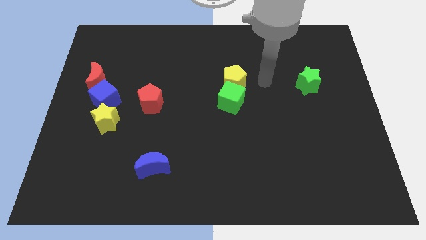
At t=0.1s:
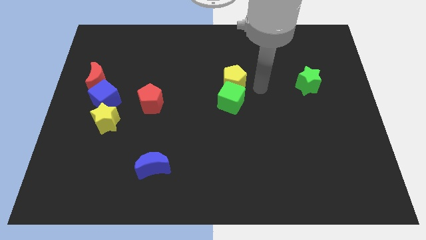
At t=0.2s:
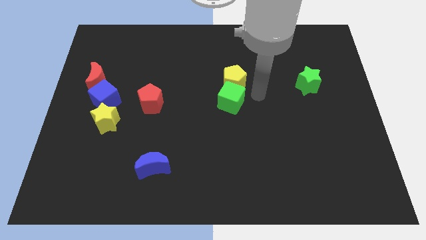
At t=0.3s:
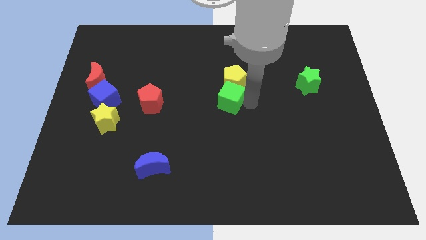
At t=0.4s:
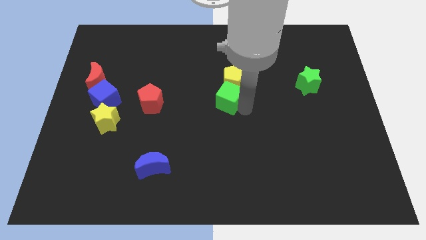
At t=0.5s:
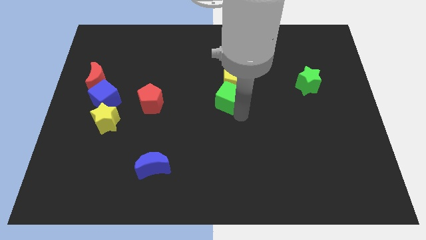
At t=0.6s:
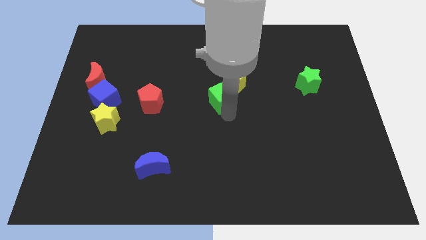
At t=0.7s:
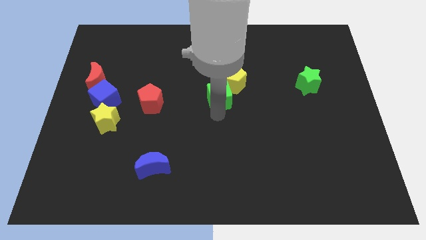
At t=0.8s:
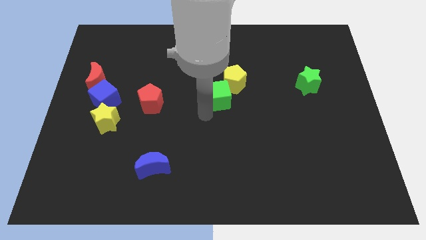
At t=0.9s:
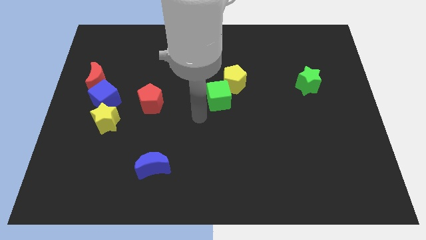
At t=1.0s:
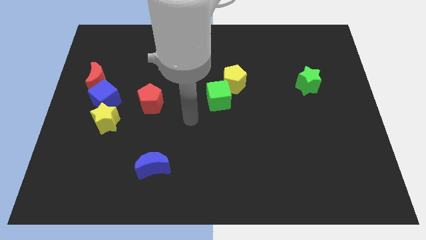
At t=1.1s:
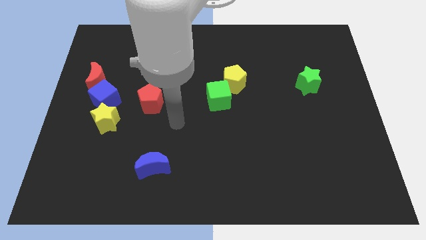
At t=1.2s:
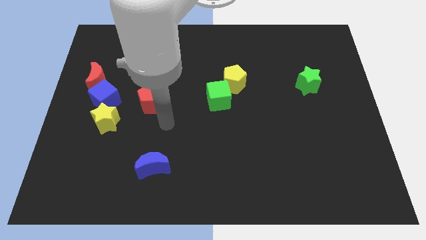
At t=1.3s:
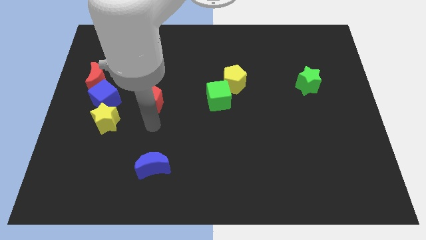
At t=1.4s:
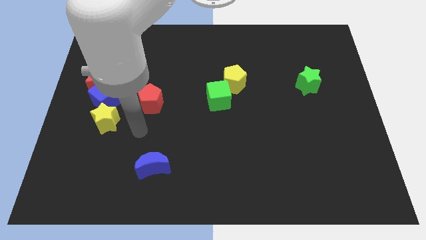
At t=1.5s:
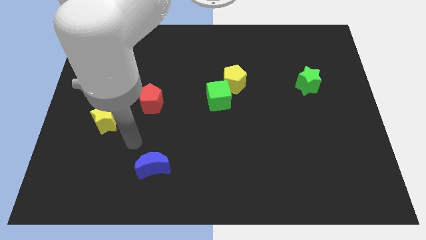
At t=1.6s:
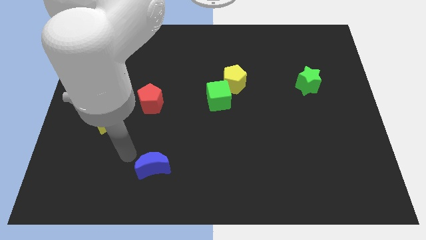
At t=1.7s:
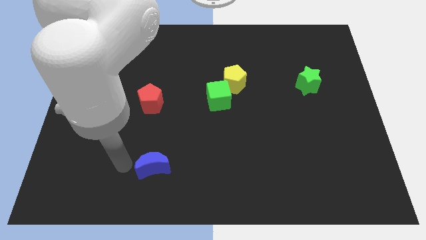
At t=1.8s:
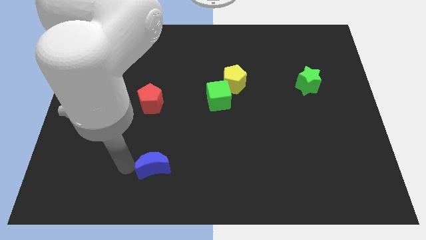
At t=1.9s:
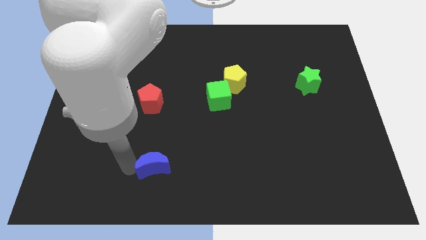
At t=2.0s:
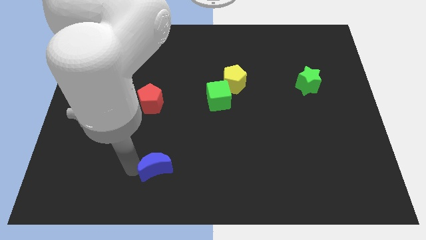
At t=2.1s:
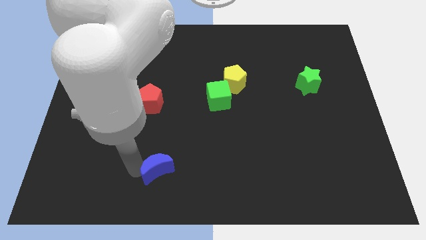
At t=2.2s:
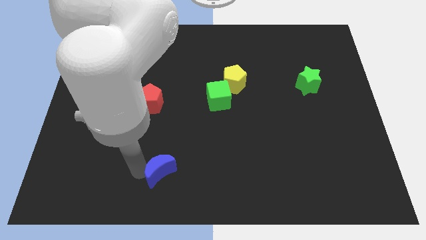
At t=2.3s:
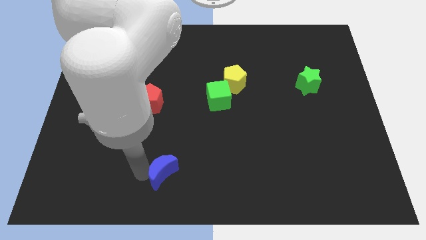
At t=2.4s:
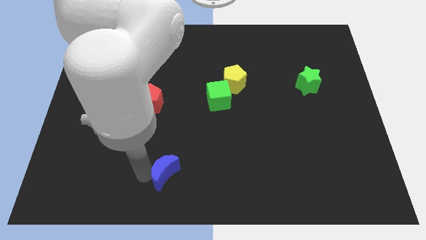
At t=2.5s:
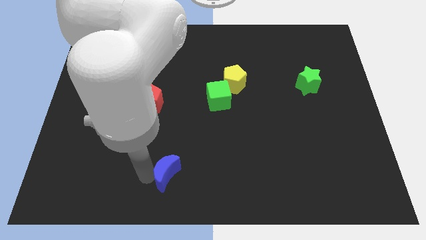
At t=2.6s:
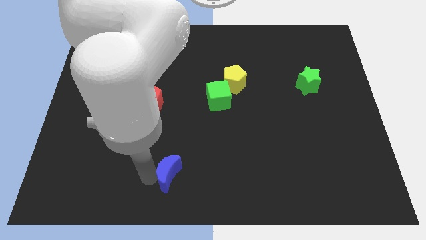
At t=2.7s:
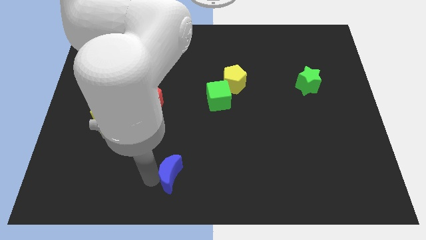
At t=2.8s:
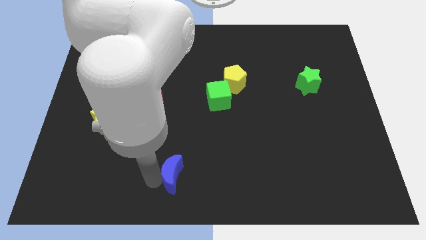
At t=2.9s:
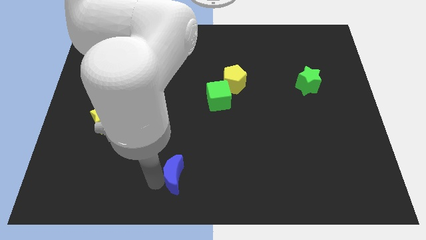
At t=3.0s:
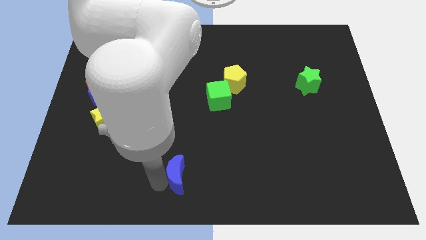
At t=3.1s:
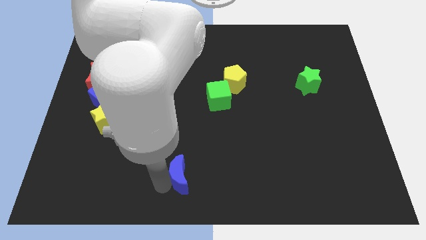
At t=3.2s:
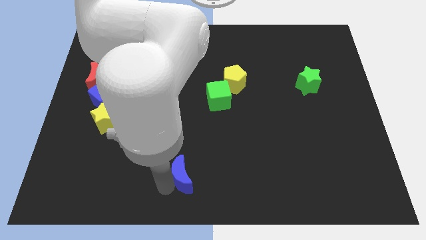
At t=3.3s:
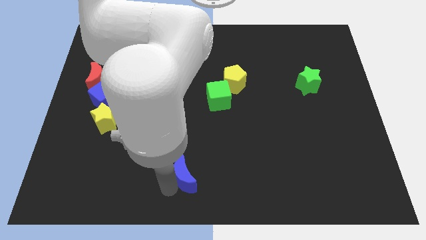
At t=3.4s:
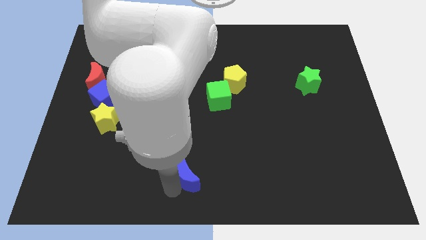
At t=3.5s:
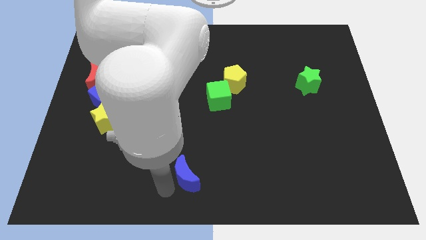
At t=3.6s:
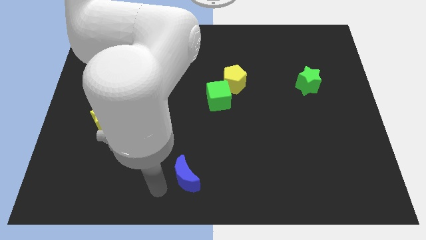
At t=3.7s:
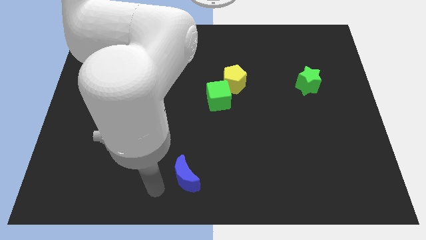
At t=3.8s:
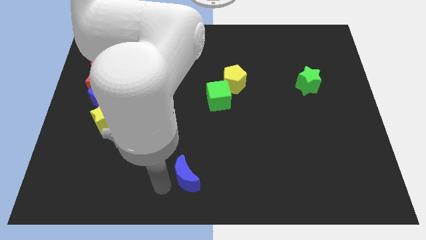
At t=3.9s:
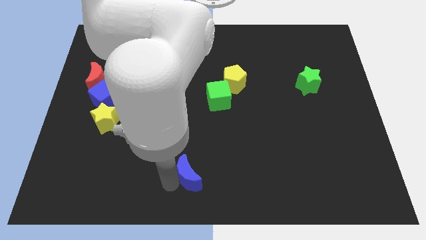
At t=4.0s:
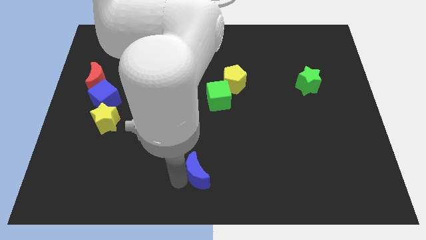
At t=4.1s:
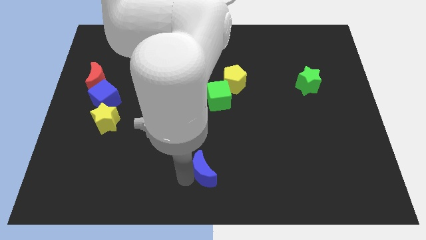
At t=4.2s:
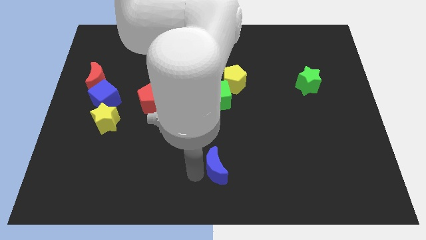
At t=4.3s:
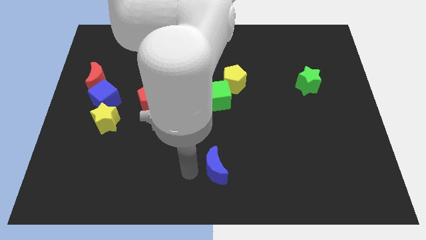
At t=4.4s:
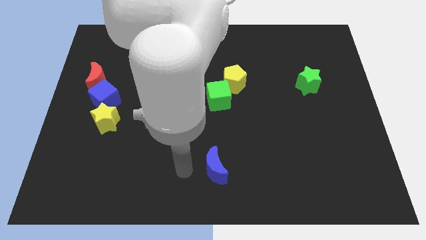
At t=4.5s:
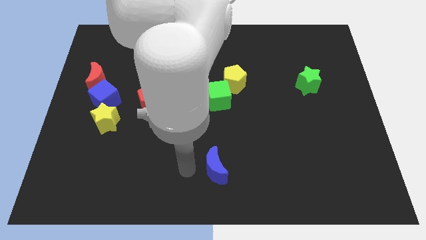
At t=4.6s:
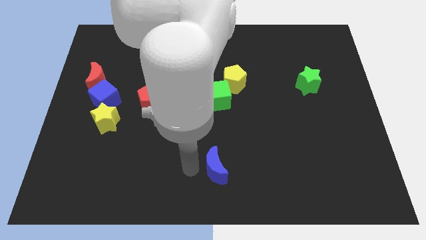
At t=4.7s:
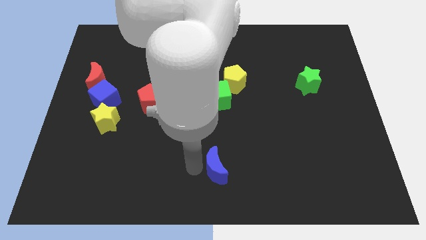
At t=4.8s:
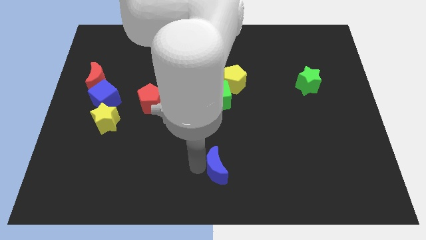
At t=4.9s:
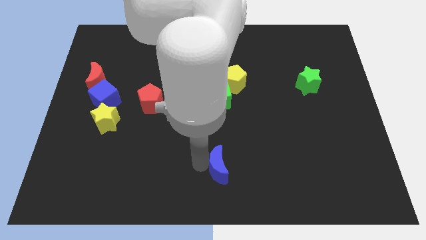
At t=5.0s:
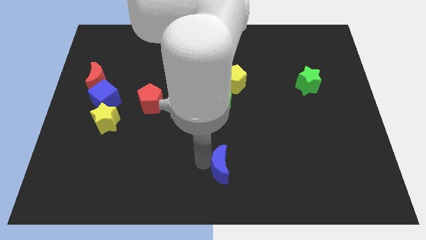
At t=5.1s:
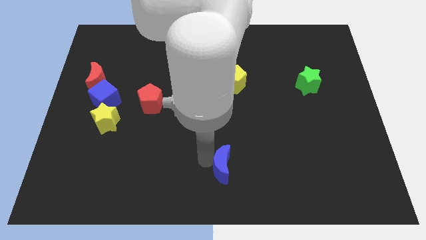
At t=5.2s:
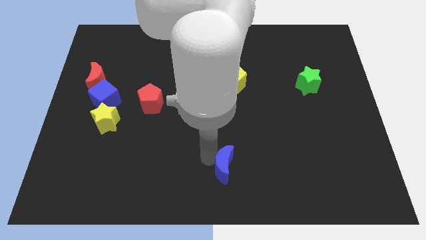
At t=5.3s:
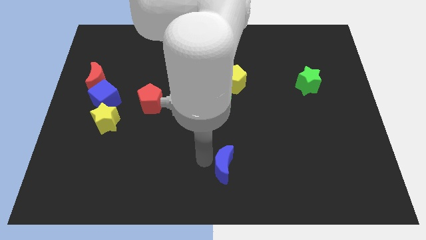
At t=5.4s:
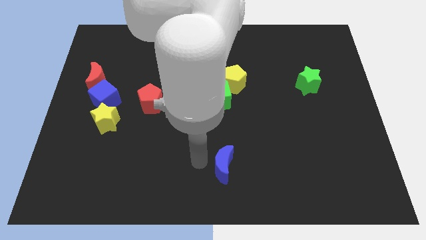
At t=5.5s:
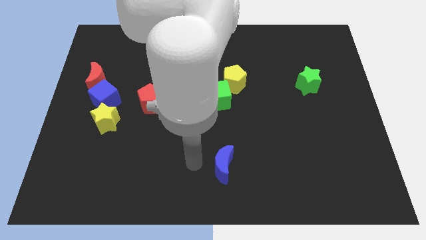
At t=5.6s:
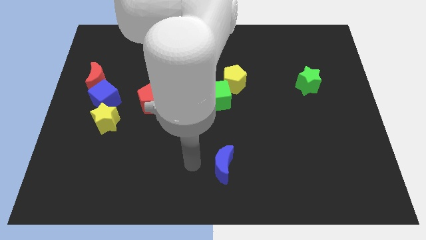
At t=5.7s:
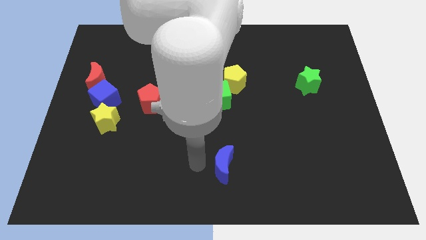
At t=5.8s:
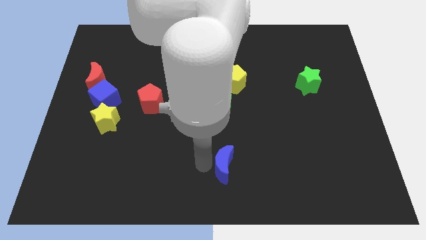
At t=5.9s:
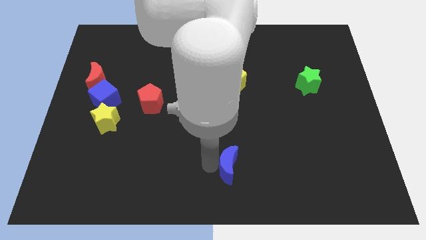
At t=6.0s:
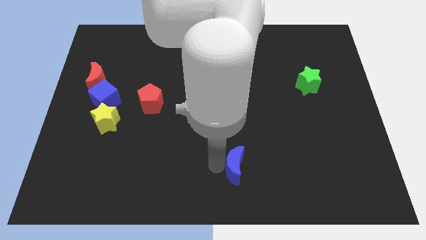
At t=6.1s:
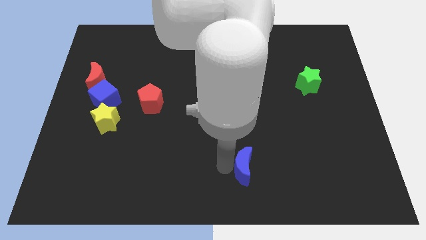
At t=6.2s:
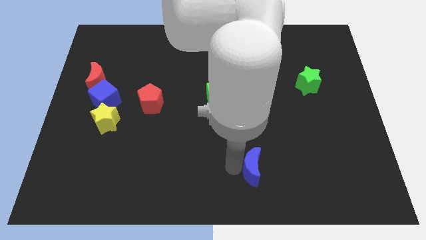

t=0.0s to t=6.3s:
push the blue moon to the right

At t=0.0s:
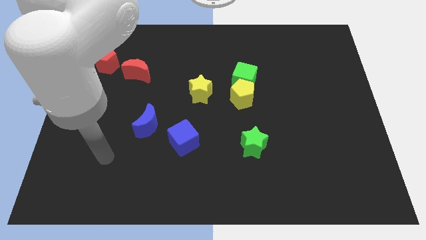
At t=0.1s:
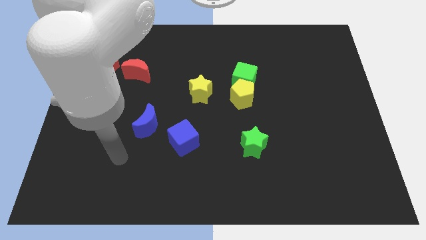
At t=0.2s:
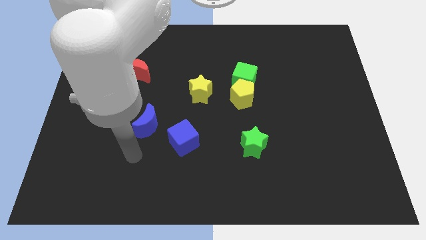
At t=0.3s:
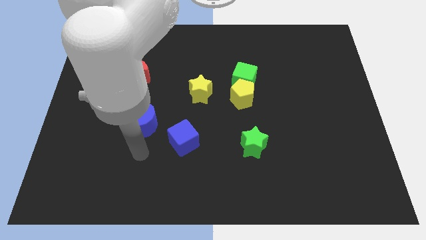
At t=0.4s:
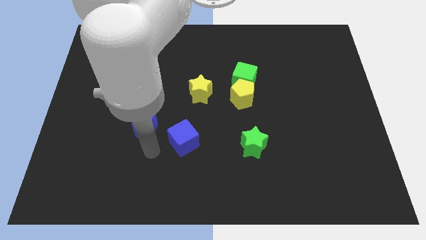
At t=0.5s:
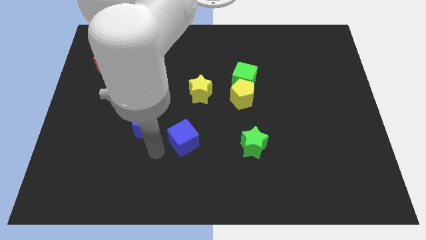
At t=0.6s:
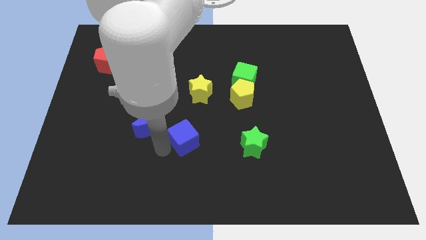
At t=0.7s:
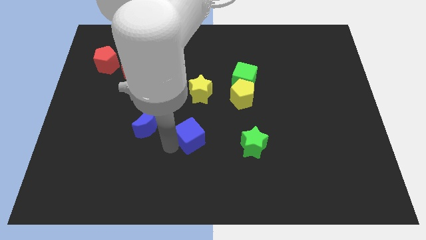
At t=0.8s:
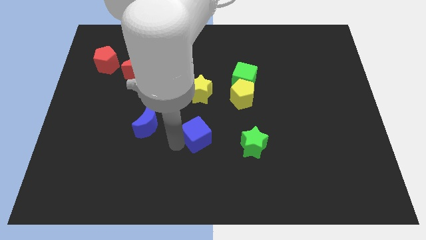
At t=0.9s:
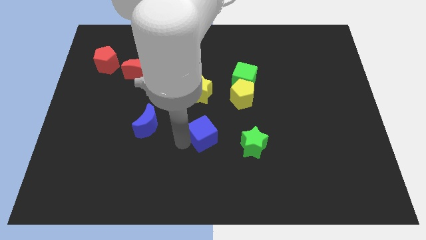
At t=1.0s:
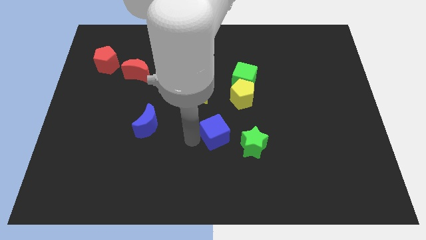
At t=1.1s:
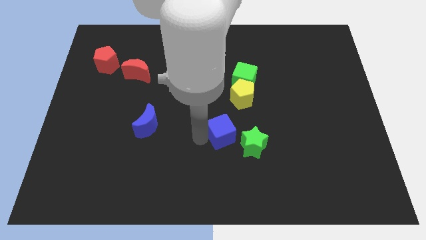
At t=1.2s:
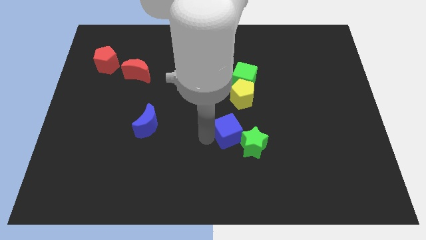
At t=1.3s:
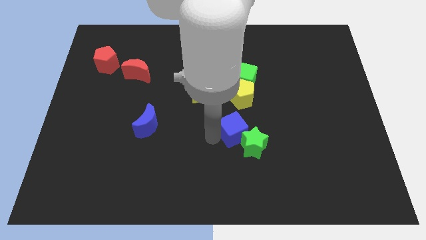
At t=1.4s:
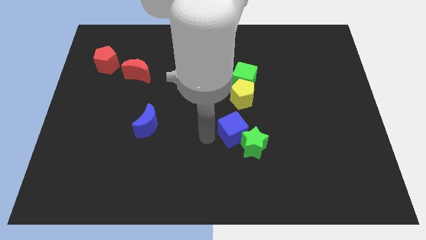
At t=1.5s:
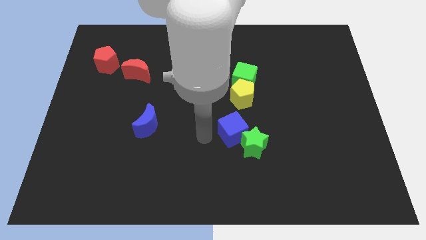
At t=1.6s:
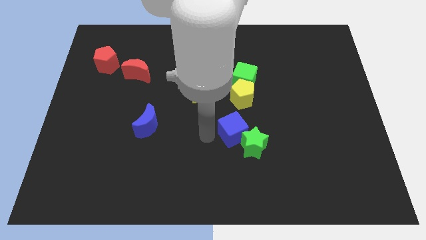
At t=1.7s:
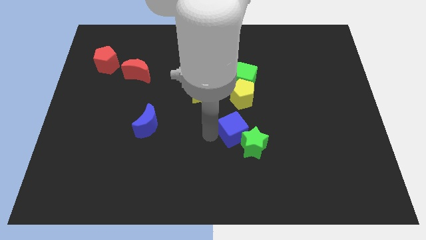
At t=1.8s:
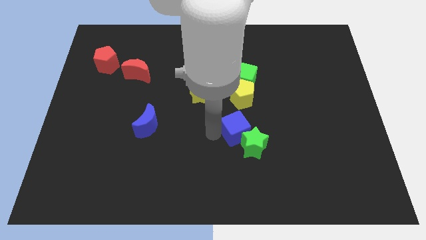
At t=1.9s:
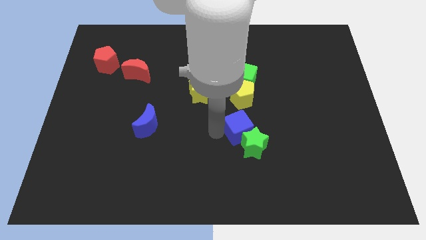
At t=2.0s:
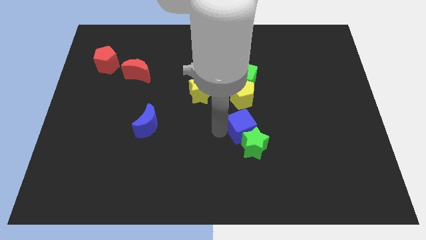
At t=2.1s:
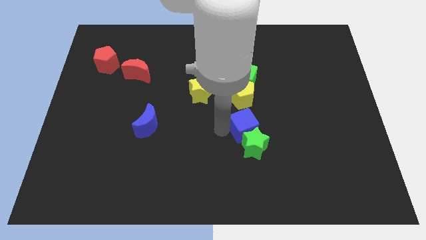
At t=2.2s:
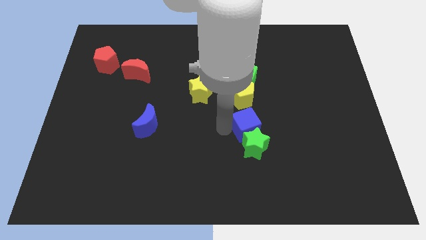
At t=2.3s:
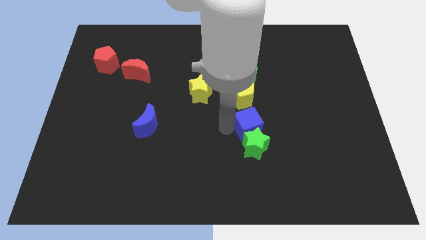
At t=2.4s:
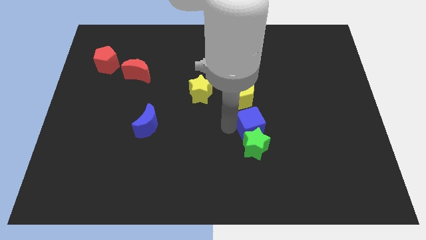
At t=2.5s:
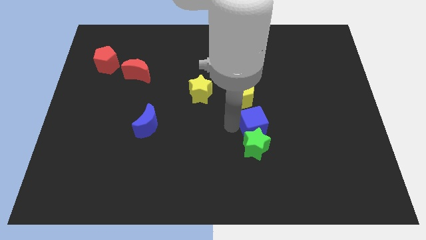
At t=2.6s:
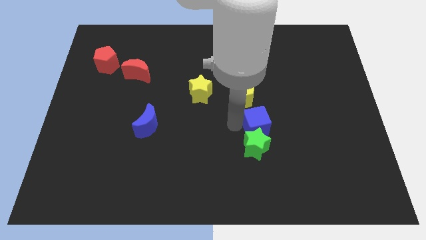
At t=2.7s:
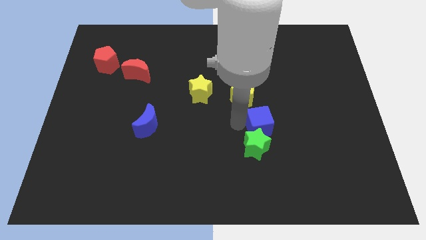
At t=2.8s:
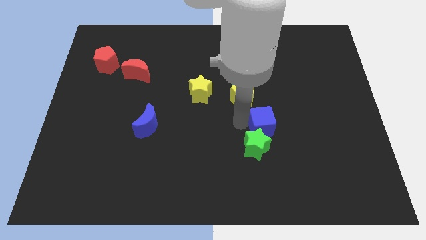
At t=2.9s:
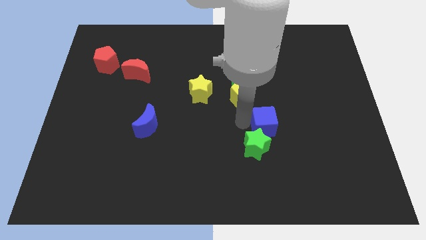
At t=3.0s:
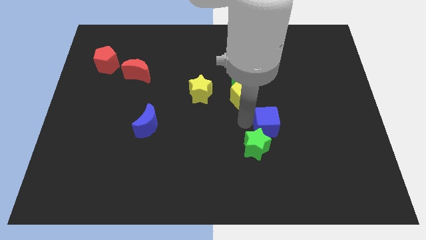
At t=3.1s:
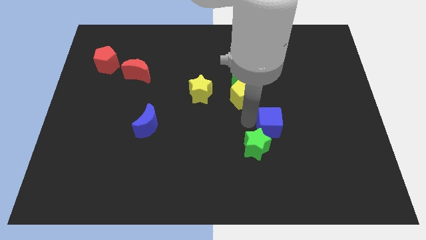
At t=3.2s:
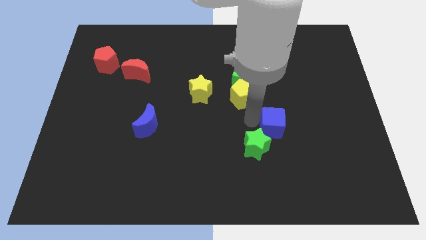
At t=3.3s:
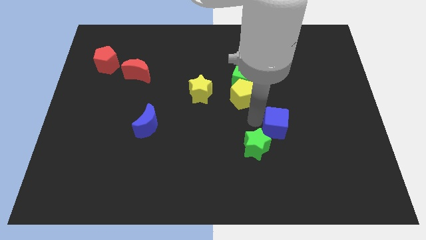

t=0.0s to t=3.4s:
push the blue cube right
